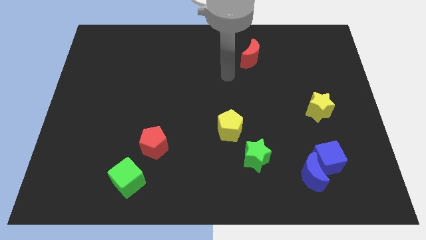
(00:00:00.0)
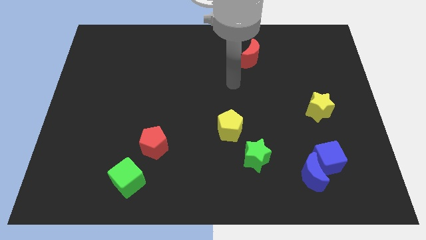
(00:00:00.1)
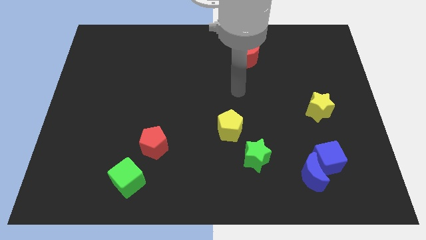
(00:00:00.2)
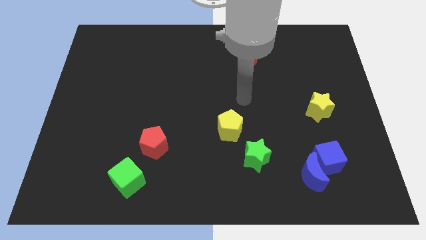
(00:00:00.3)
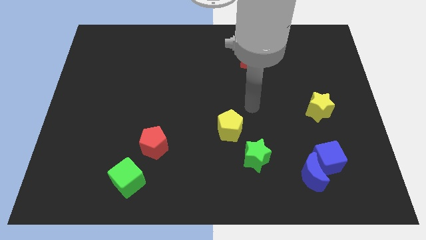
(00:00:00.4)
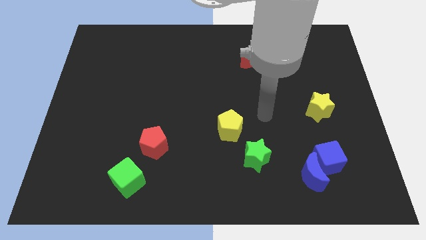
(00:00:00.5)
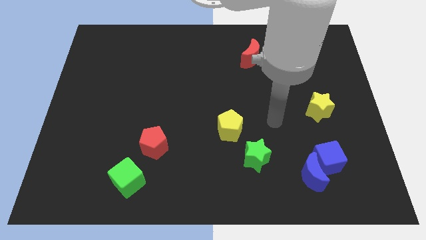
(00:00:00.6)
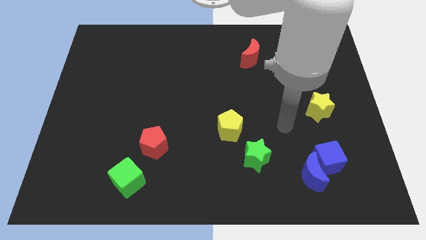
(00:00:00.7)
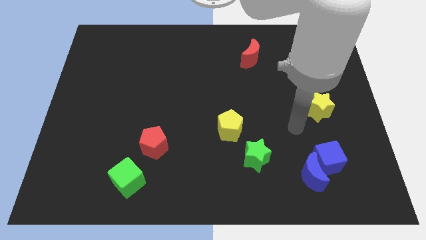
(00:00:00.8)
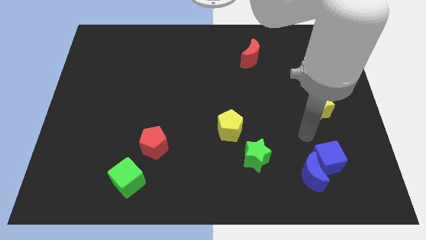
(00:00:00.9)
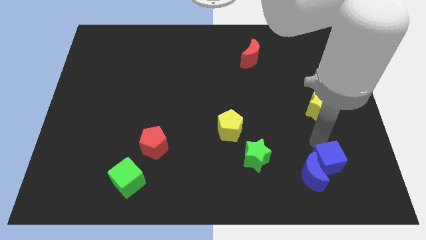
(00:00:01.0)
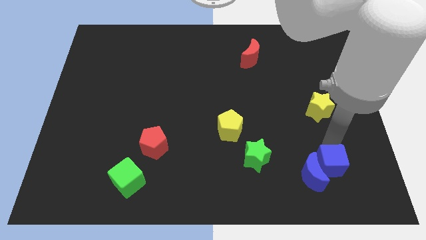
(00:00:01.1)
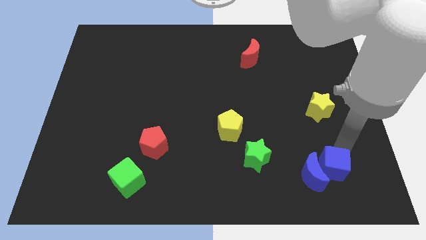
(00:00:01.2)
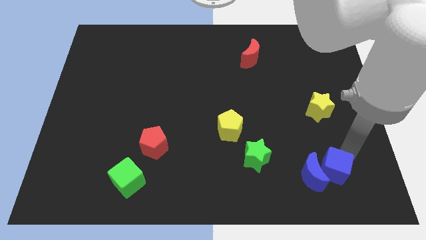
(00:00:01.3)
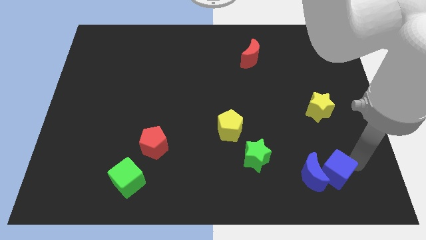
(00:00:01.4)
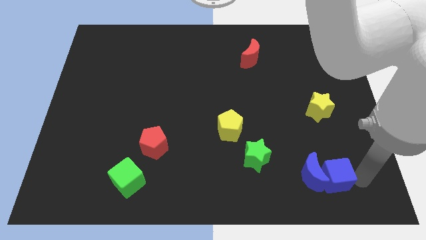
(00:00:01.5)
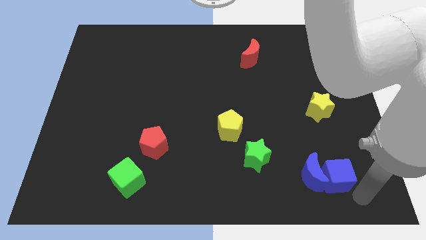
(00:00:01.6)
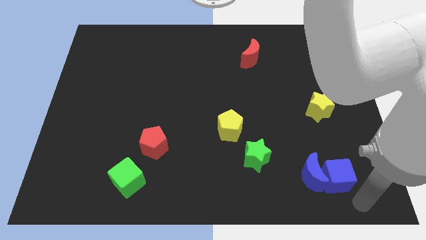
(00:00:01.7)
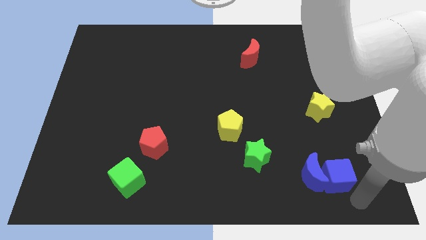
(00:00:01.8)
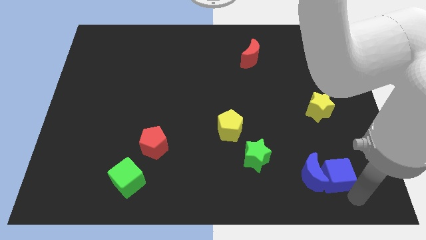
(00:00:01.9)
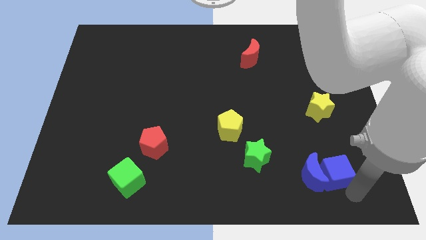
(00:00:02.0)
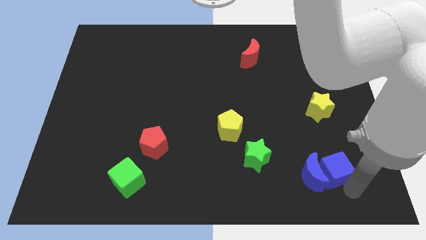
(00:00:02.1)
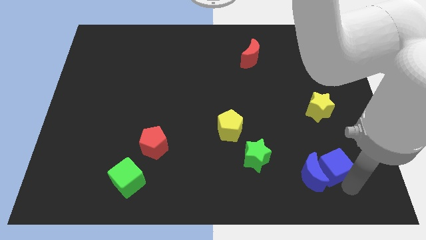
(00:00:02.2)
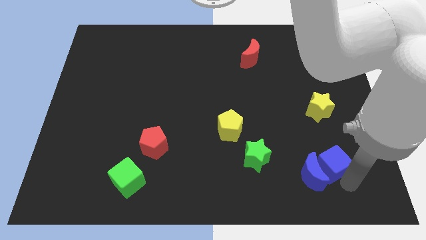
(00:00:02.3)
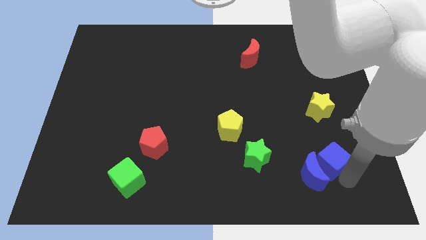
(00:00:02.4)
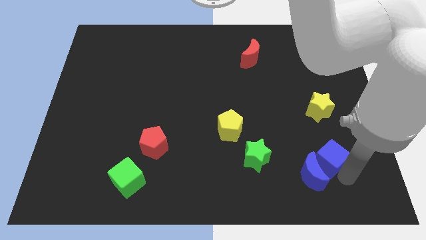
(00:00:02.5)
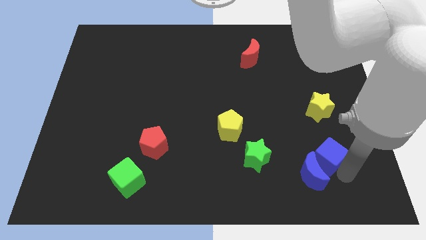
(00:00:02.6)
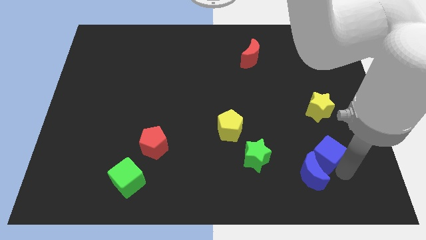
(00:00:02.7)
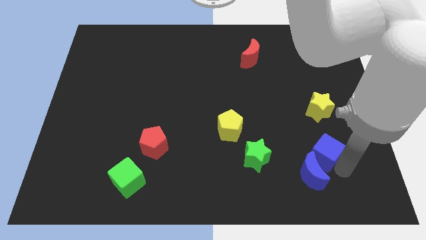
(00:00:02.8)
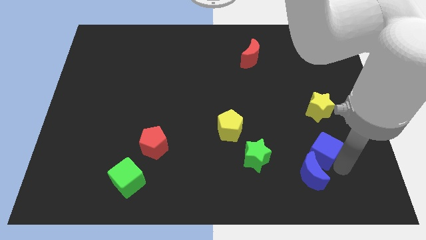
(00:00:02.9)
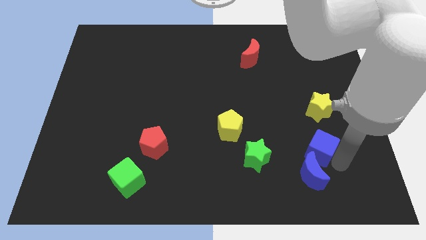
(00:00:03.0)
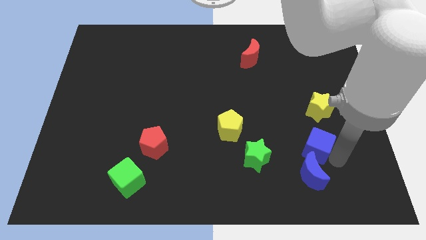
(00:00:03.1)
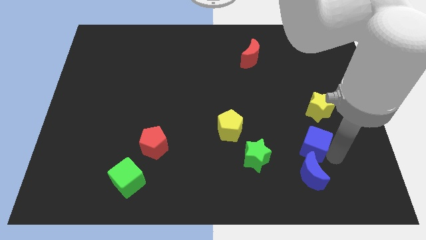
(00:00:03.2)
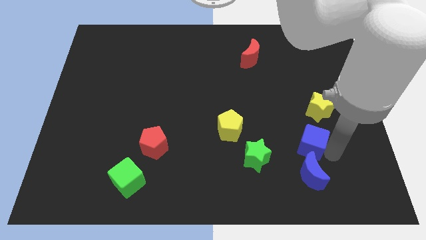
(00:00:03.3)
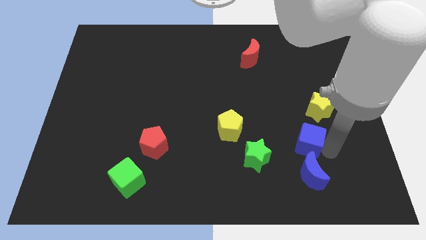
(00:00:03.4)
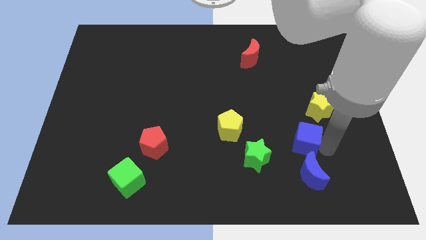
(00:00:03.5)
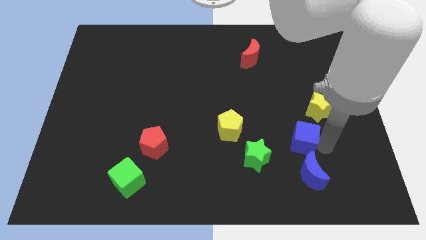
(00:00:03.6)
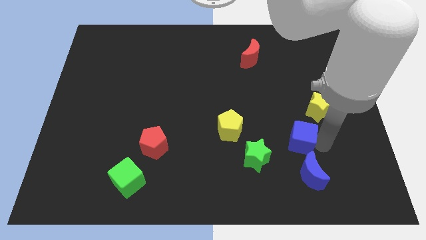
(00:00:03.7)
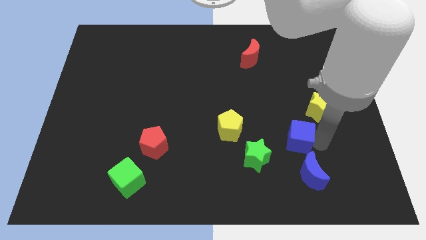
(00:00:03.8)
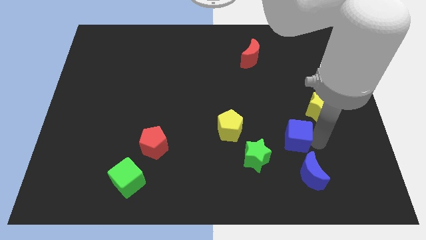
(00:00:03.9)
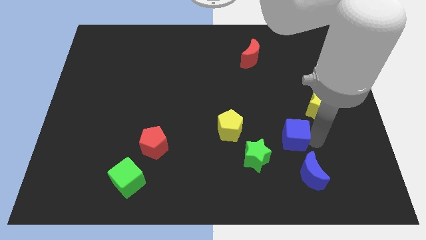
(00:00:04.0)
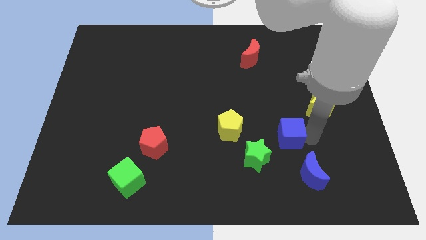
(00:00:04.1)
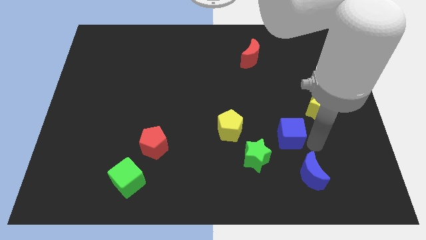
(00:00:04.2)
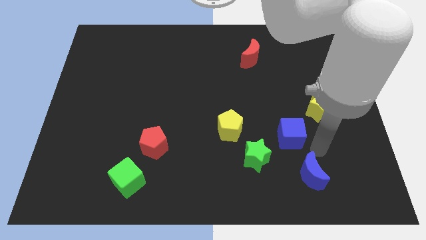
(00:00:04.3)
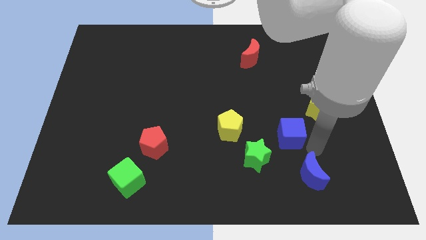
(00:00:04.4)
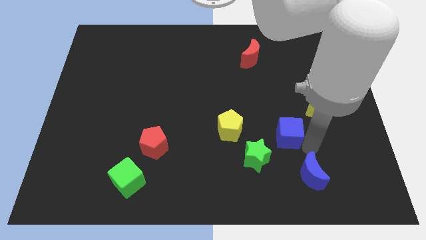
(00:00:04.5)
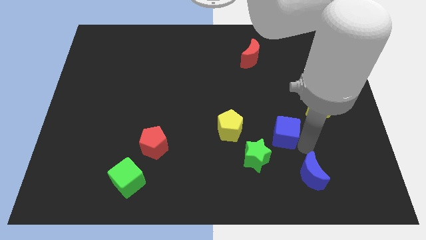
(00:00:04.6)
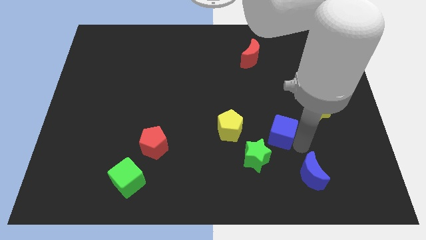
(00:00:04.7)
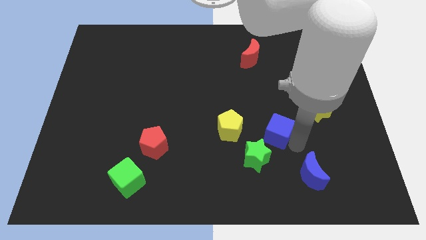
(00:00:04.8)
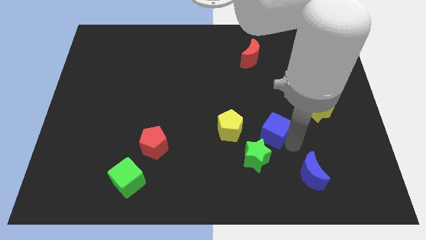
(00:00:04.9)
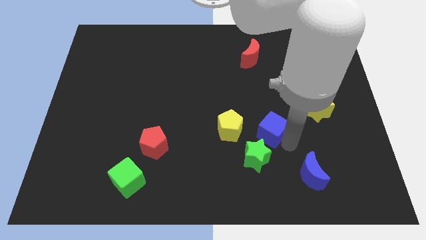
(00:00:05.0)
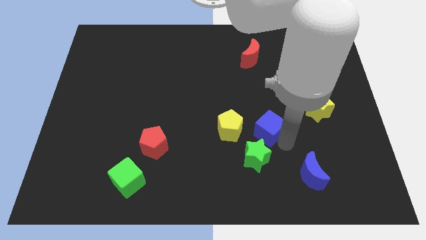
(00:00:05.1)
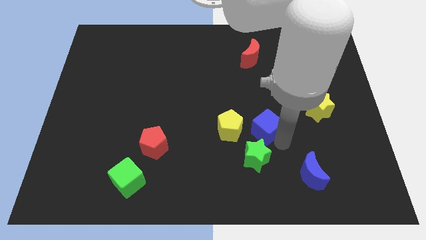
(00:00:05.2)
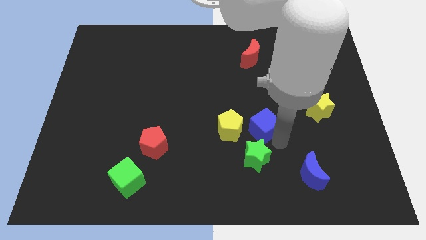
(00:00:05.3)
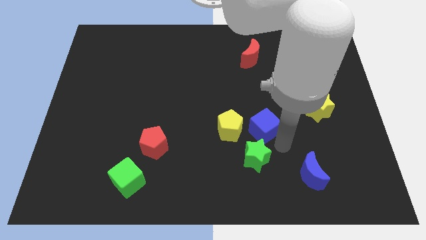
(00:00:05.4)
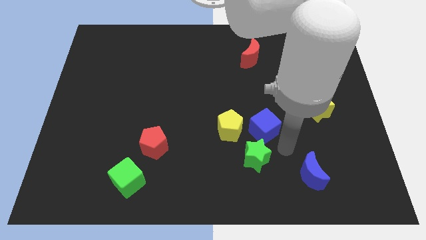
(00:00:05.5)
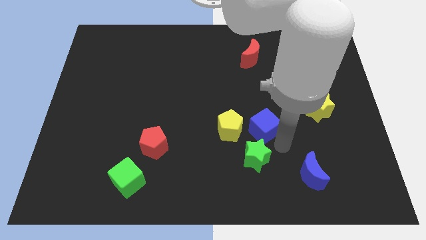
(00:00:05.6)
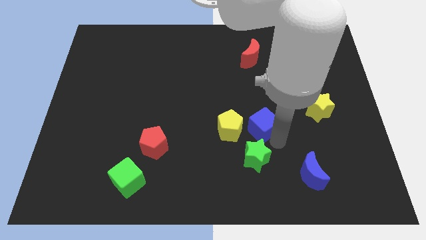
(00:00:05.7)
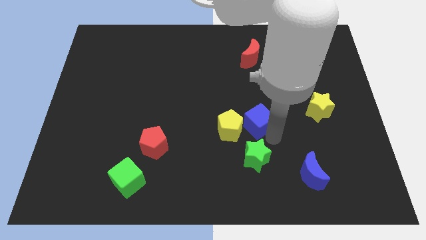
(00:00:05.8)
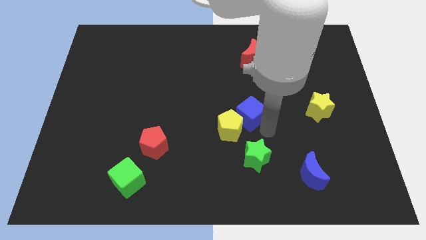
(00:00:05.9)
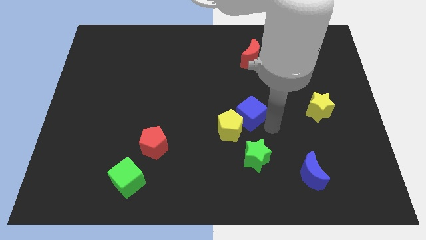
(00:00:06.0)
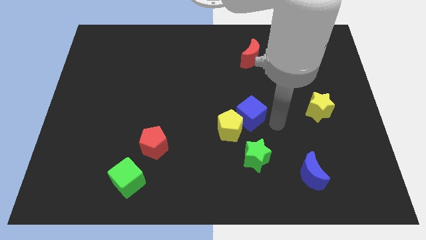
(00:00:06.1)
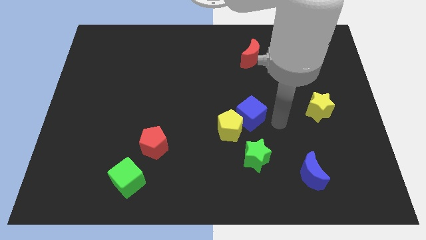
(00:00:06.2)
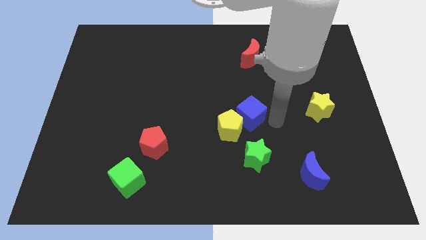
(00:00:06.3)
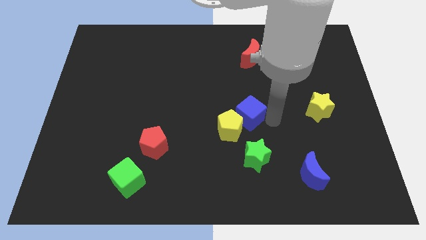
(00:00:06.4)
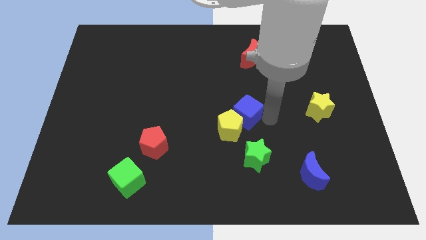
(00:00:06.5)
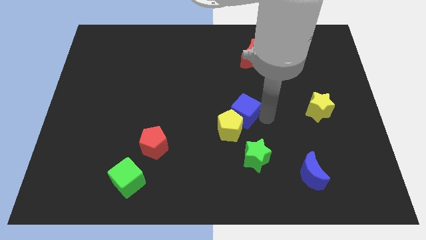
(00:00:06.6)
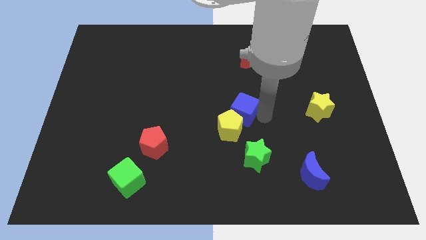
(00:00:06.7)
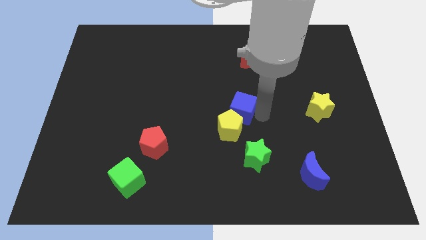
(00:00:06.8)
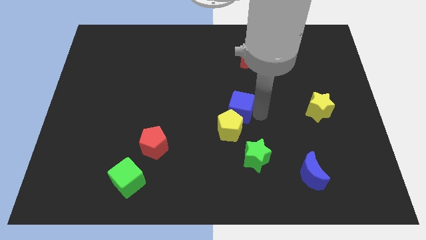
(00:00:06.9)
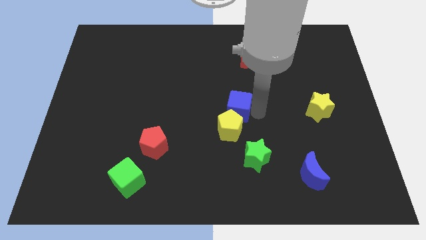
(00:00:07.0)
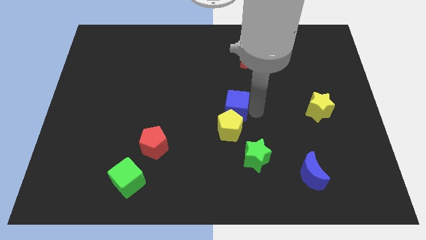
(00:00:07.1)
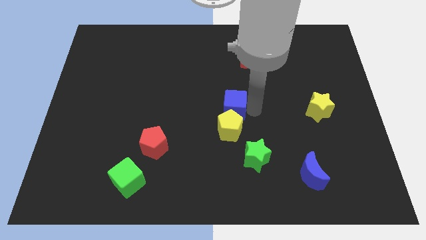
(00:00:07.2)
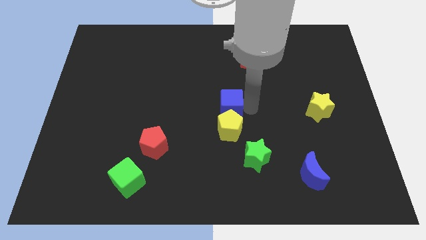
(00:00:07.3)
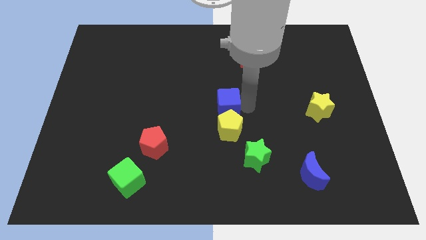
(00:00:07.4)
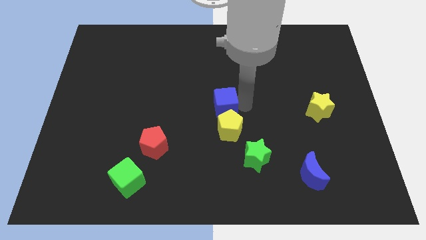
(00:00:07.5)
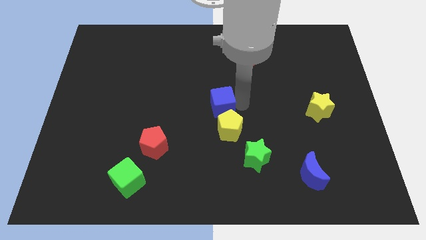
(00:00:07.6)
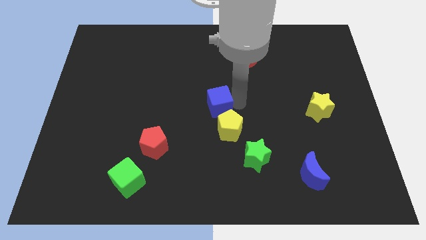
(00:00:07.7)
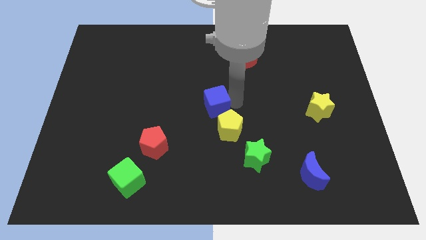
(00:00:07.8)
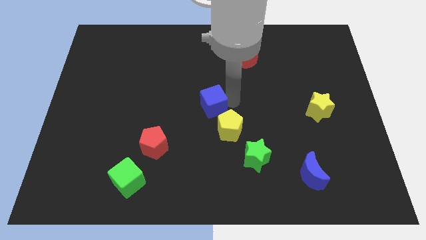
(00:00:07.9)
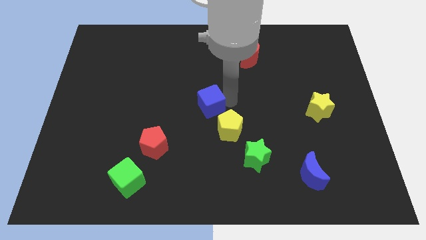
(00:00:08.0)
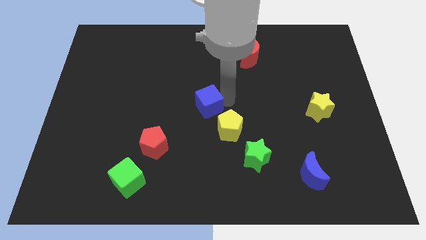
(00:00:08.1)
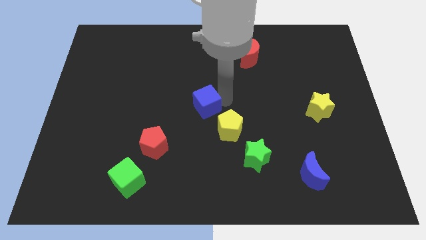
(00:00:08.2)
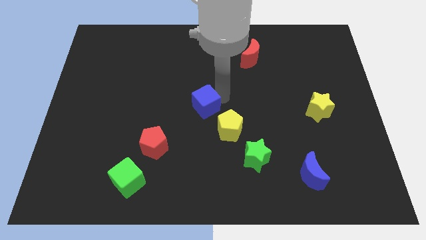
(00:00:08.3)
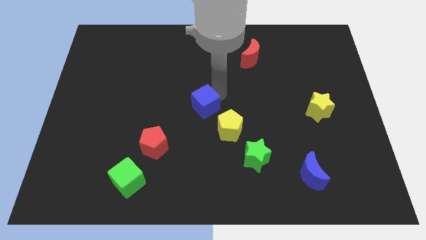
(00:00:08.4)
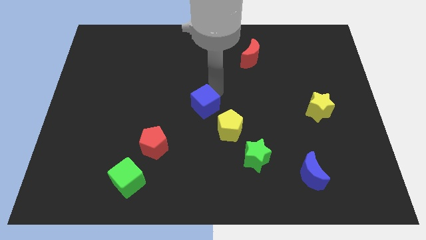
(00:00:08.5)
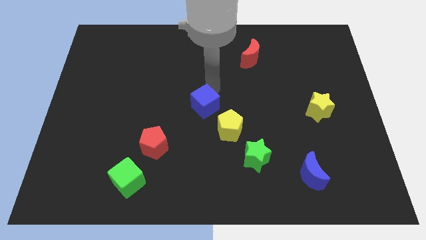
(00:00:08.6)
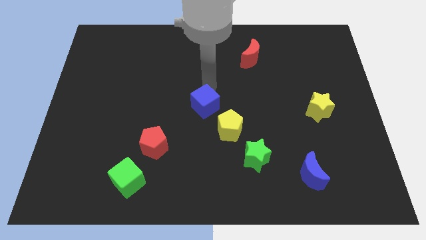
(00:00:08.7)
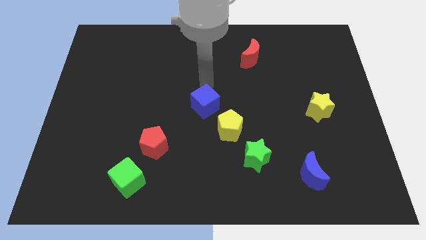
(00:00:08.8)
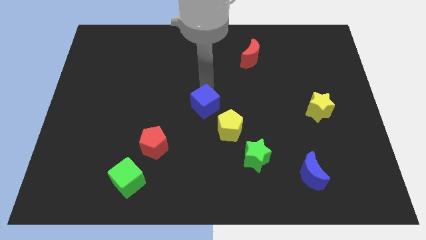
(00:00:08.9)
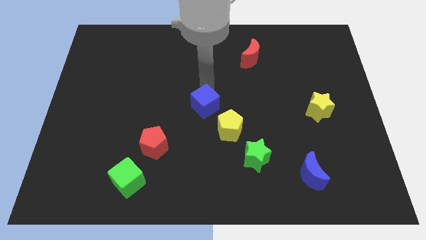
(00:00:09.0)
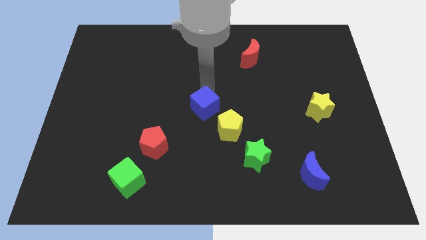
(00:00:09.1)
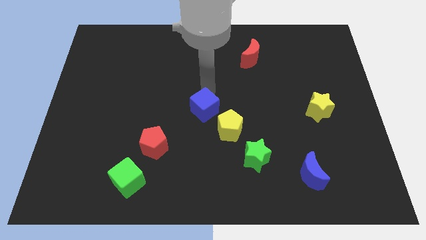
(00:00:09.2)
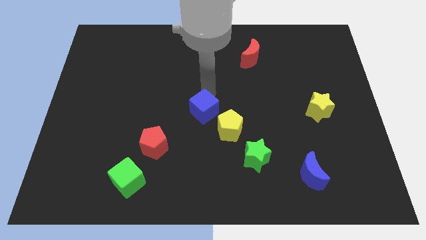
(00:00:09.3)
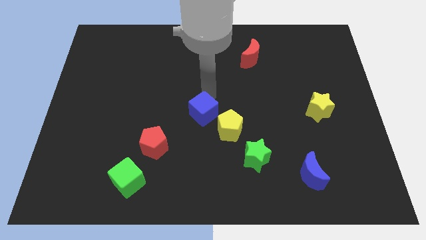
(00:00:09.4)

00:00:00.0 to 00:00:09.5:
push the blue cube to the left side of the yellow pentagon
